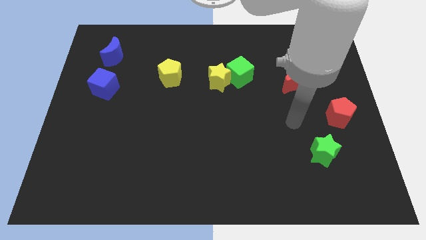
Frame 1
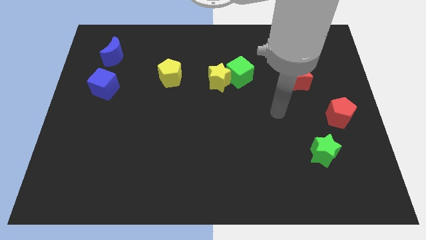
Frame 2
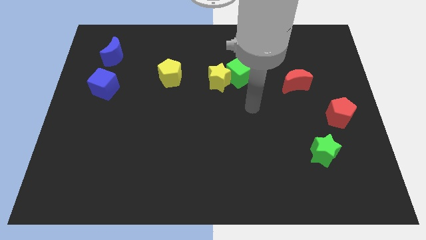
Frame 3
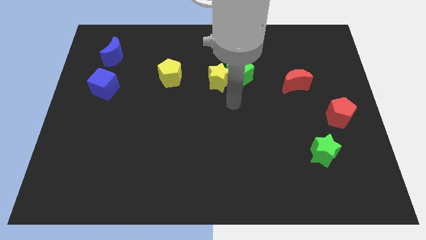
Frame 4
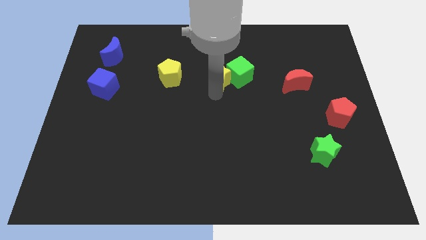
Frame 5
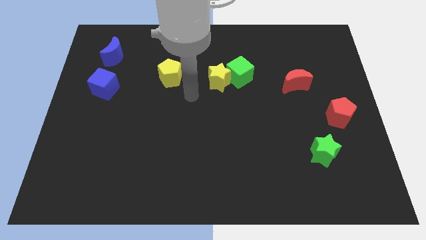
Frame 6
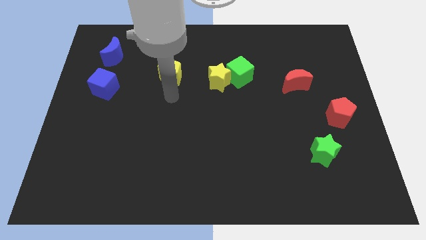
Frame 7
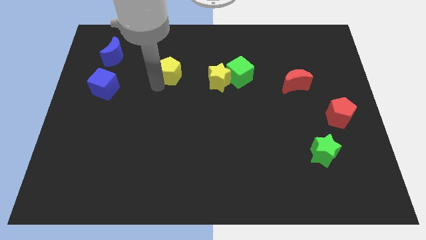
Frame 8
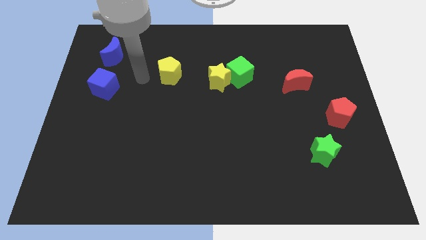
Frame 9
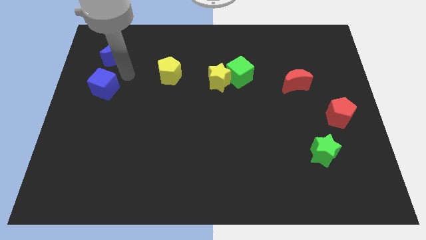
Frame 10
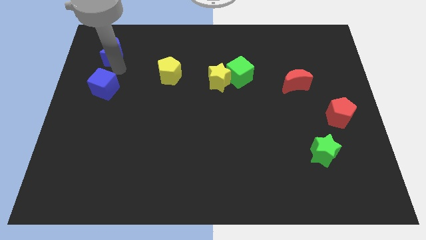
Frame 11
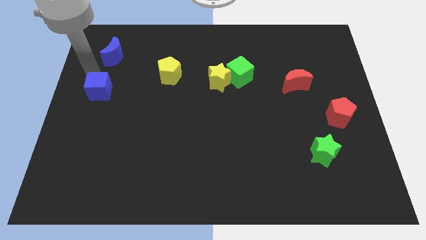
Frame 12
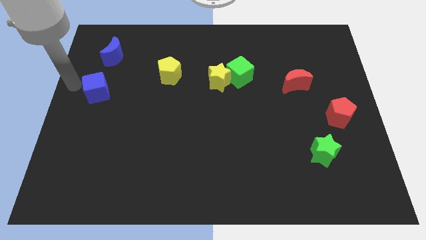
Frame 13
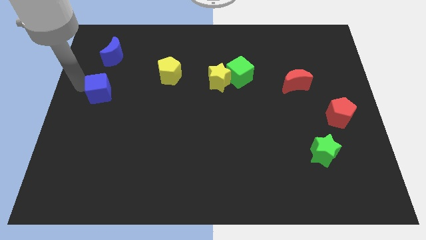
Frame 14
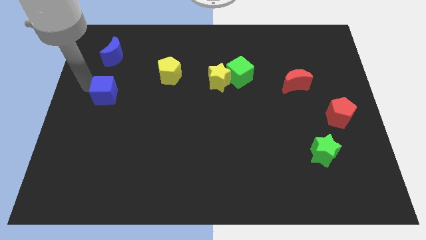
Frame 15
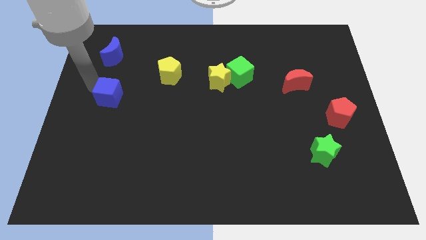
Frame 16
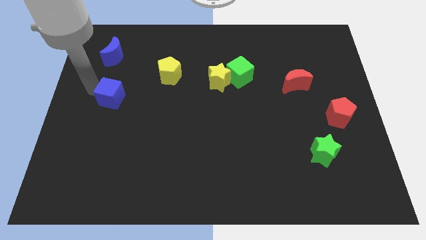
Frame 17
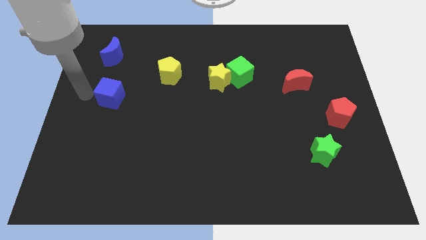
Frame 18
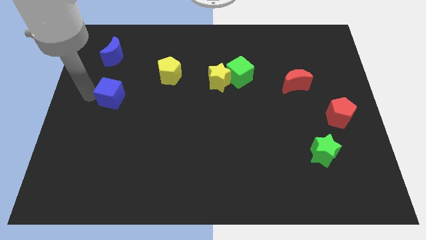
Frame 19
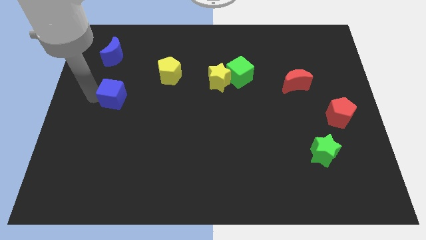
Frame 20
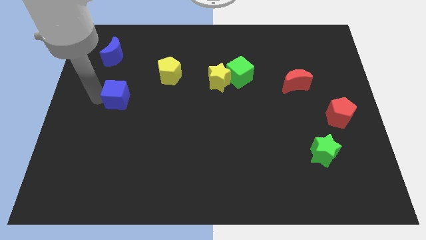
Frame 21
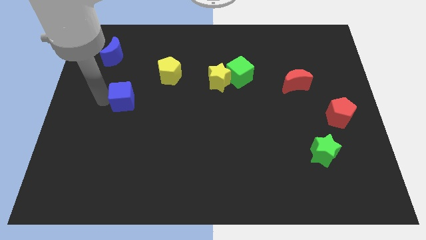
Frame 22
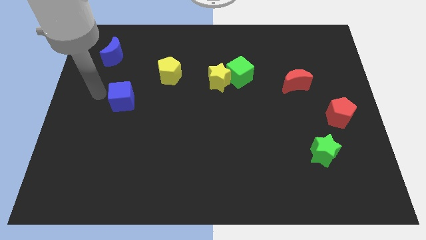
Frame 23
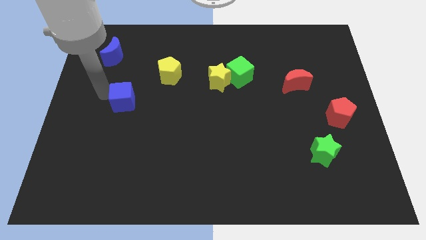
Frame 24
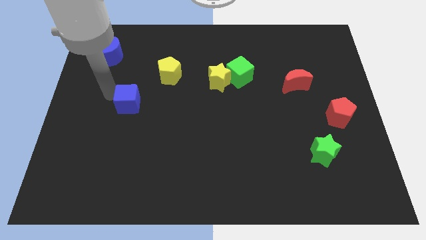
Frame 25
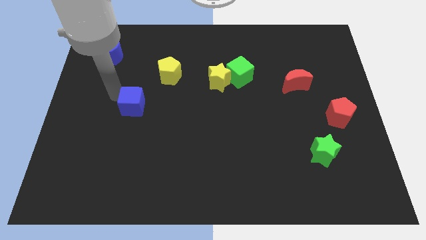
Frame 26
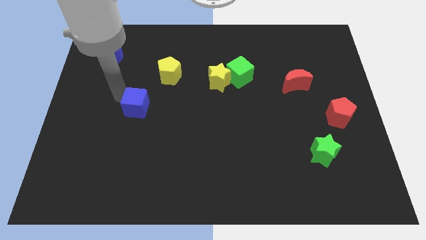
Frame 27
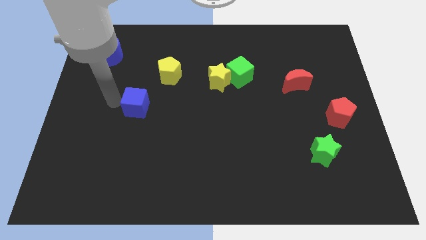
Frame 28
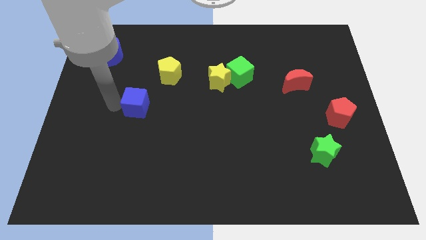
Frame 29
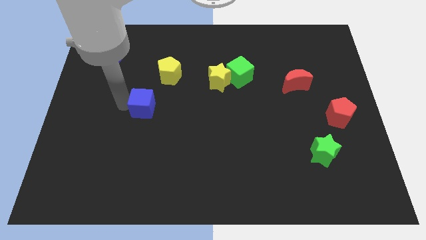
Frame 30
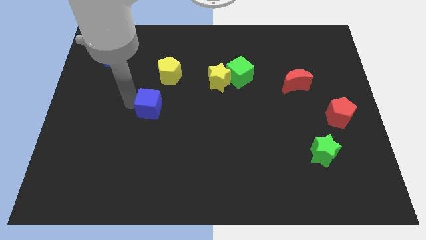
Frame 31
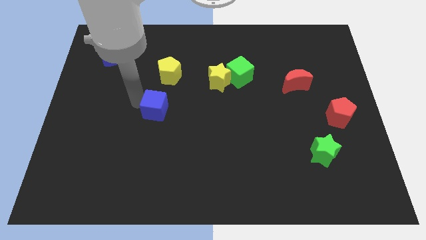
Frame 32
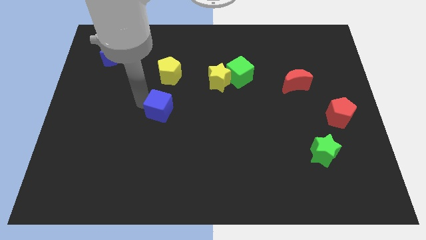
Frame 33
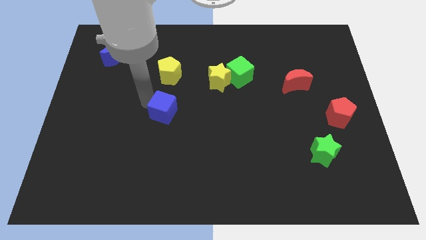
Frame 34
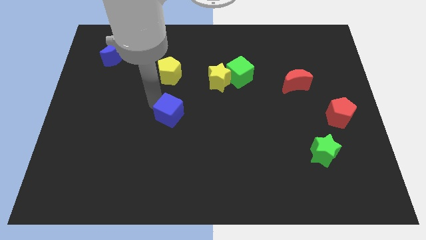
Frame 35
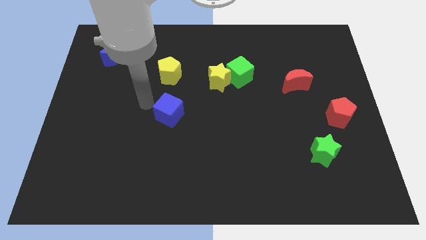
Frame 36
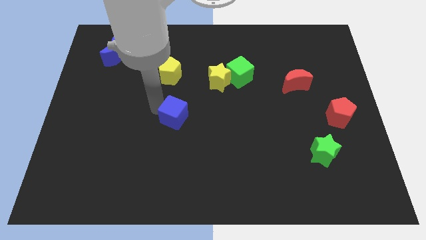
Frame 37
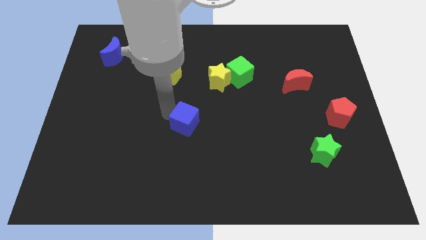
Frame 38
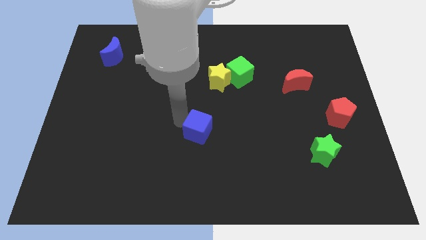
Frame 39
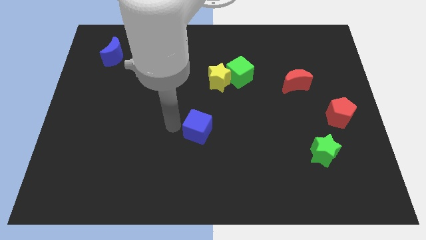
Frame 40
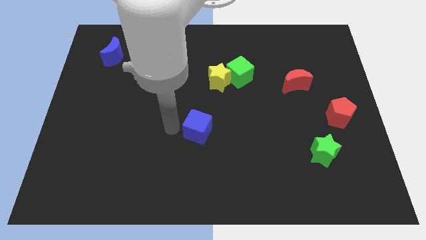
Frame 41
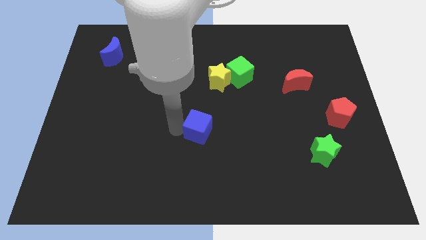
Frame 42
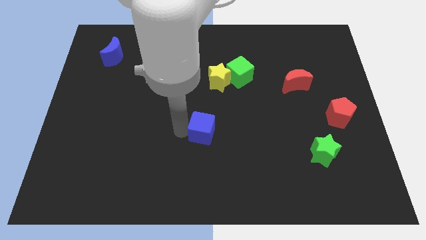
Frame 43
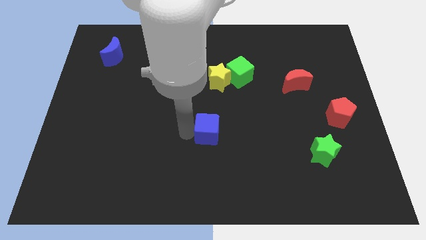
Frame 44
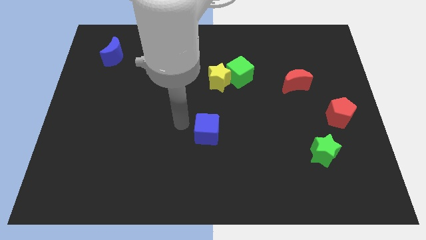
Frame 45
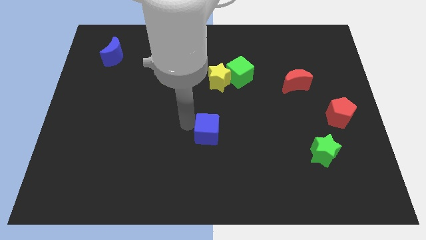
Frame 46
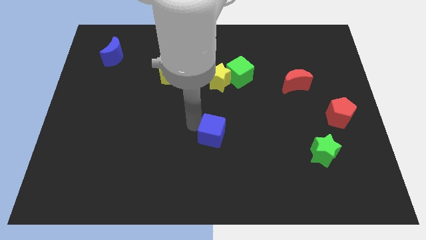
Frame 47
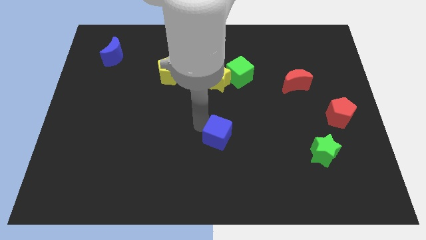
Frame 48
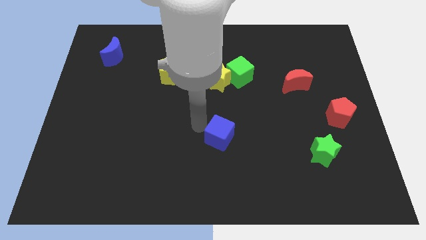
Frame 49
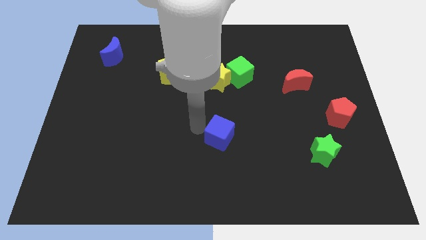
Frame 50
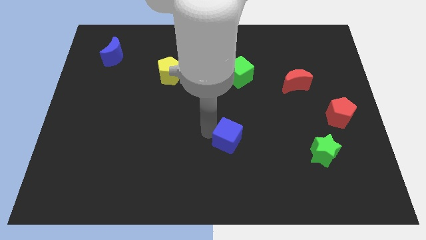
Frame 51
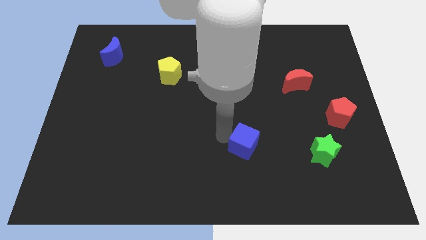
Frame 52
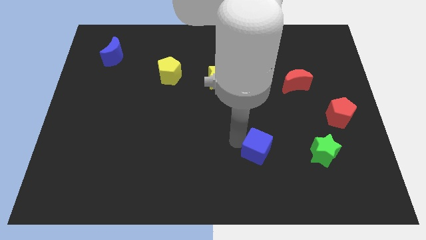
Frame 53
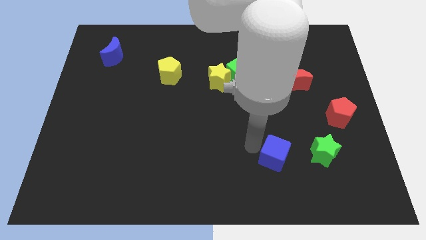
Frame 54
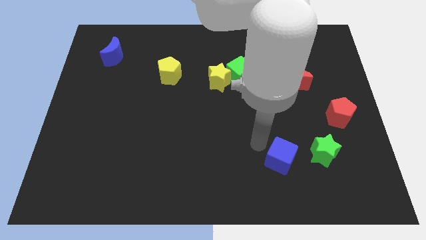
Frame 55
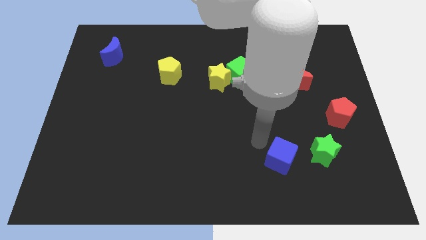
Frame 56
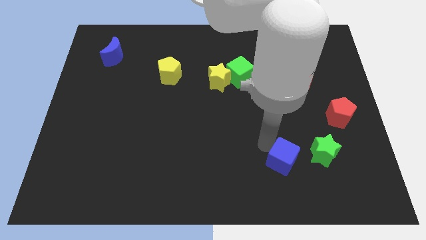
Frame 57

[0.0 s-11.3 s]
slide the blue cube diagonally down and to the left of the green star

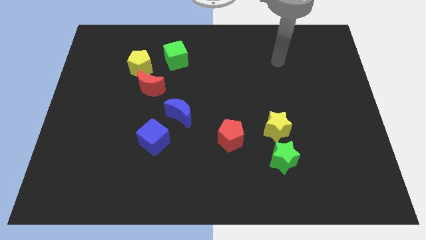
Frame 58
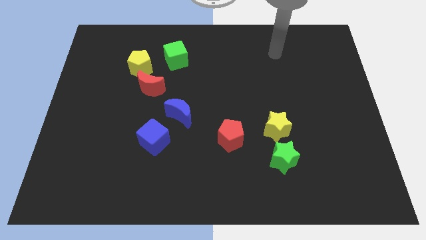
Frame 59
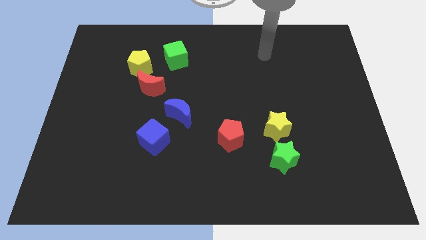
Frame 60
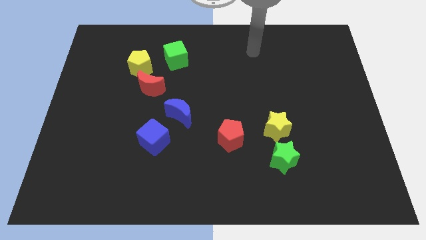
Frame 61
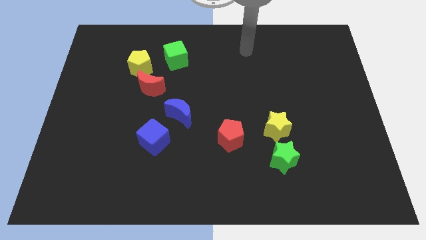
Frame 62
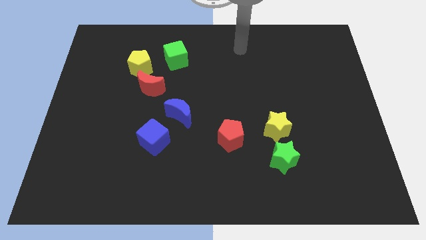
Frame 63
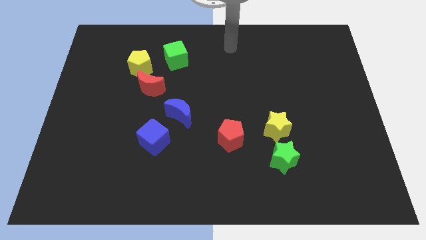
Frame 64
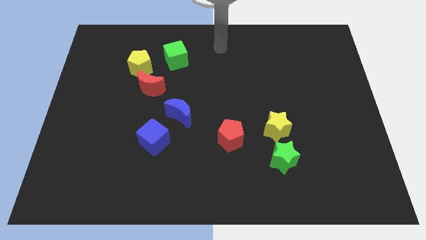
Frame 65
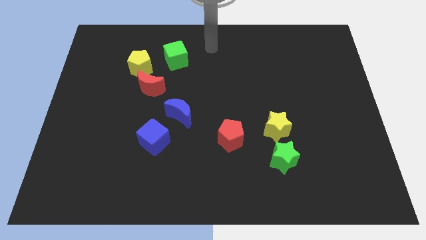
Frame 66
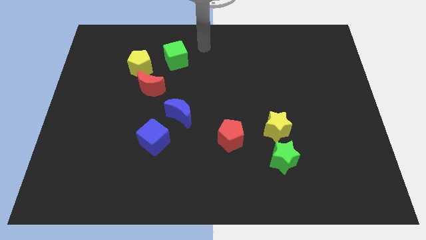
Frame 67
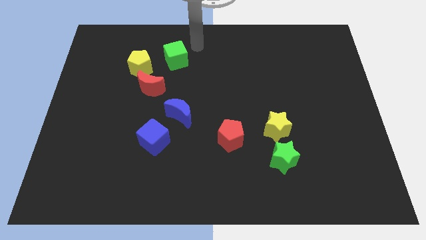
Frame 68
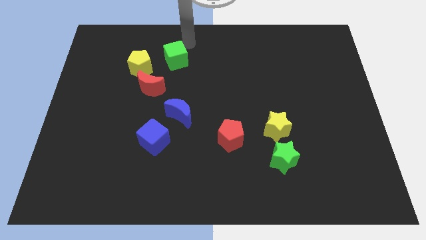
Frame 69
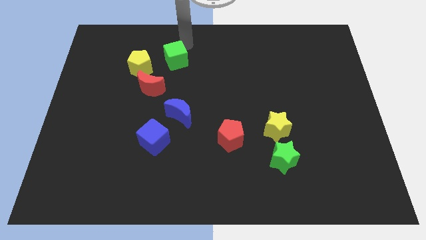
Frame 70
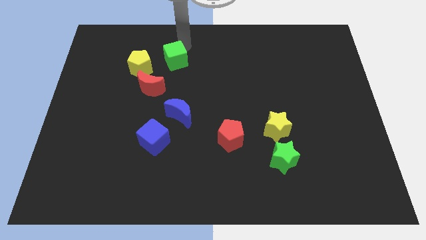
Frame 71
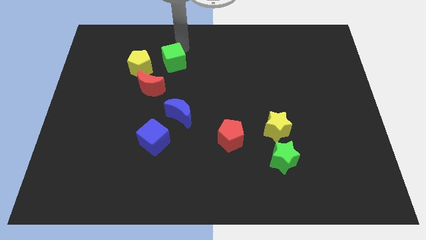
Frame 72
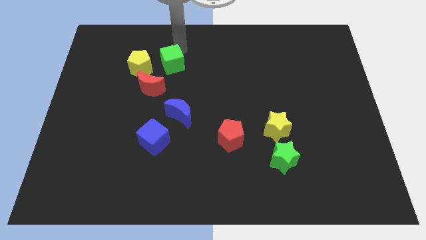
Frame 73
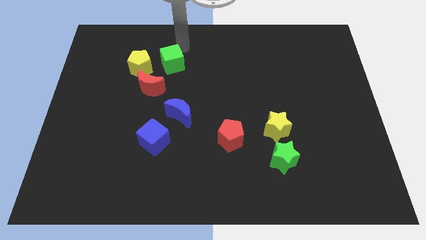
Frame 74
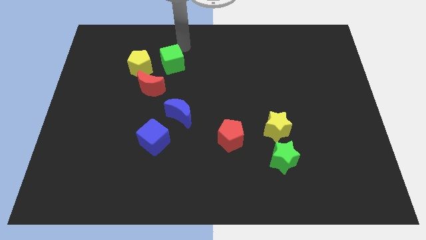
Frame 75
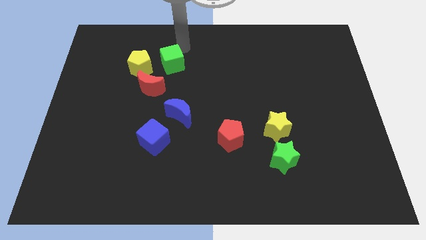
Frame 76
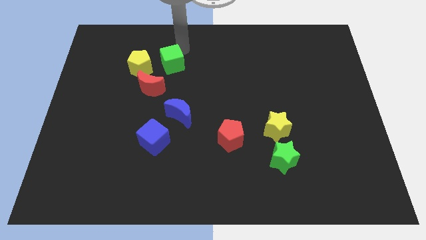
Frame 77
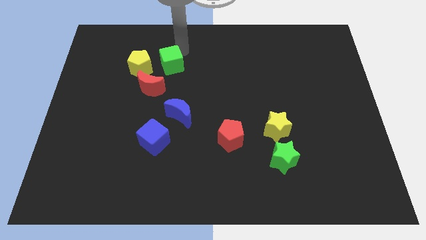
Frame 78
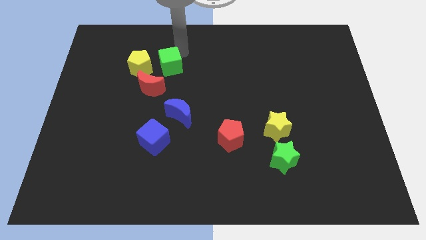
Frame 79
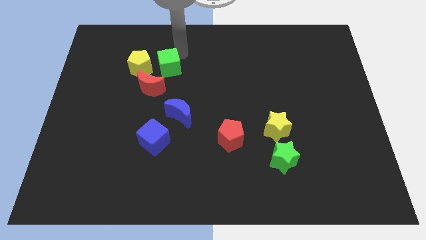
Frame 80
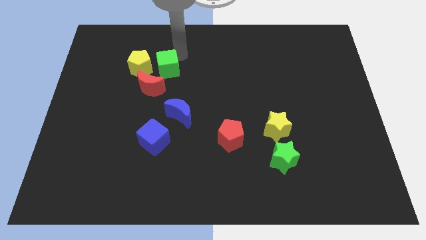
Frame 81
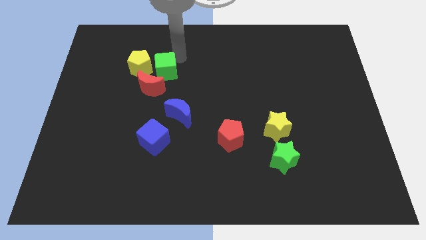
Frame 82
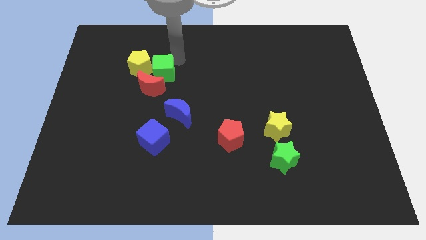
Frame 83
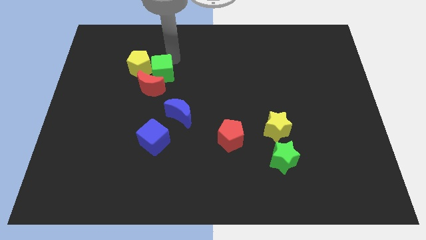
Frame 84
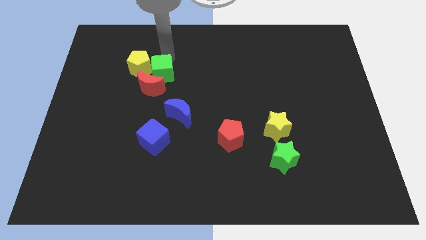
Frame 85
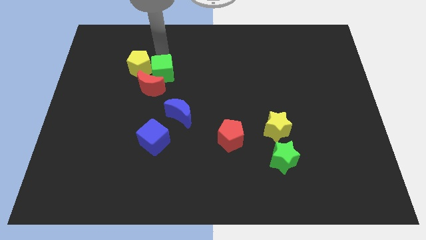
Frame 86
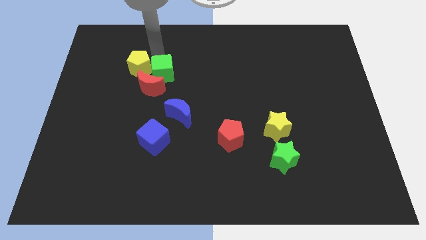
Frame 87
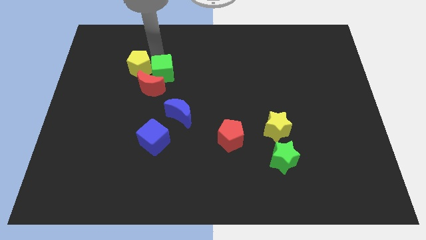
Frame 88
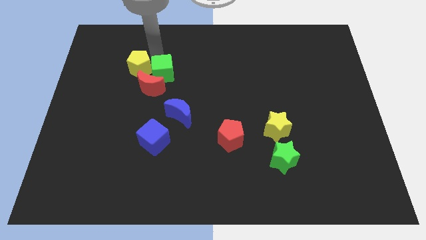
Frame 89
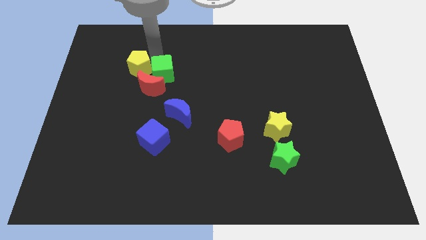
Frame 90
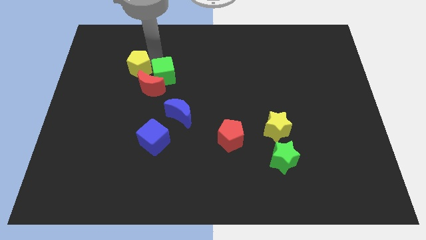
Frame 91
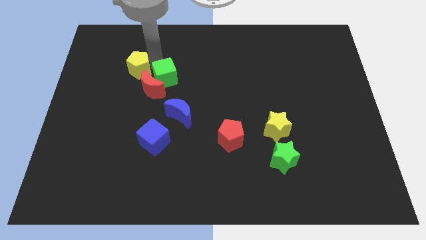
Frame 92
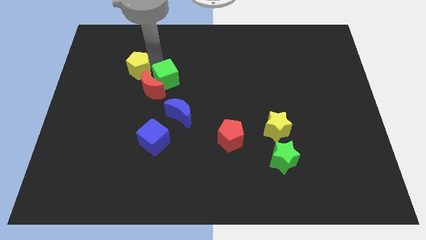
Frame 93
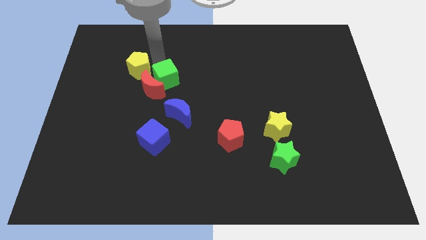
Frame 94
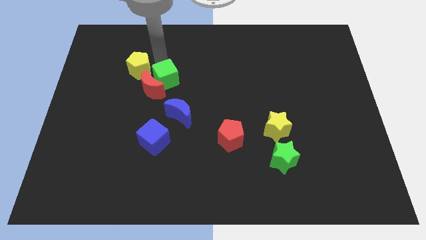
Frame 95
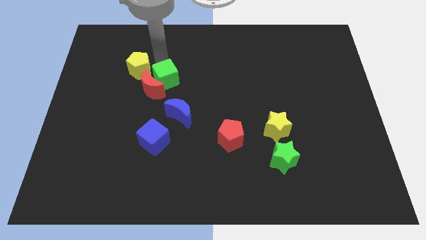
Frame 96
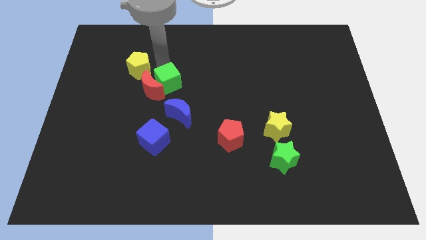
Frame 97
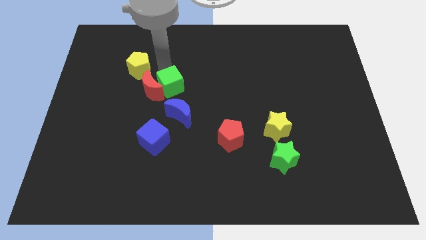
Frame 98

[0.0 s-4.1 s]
push the green cube to the bottom right of the red moon
